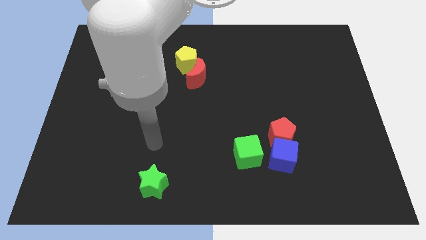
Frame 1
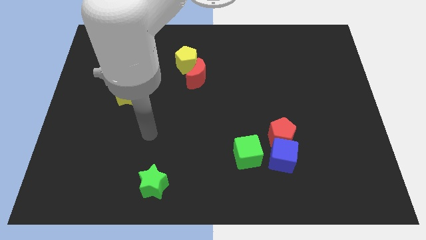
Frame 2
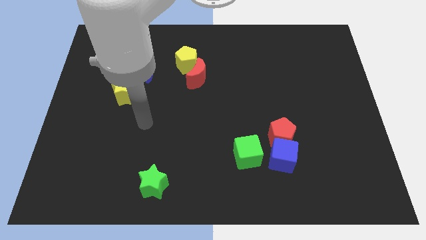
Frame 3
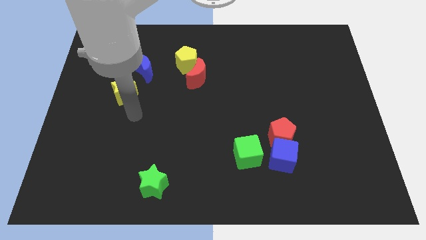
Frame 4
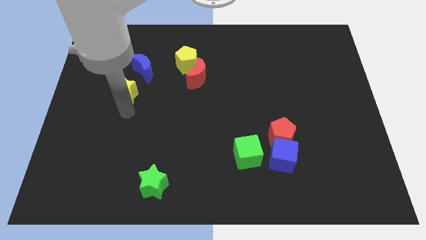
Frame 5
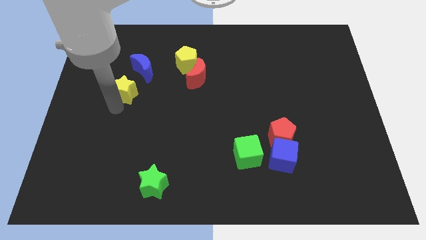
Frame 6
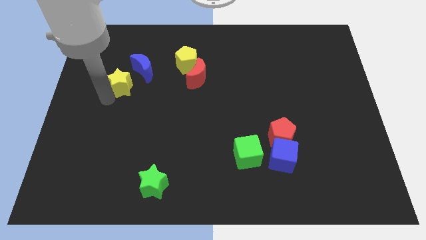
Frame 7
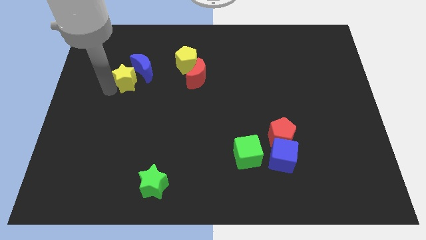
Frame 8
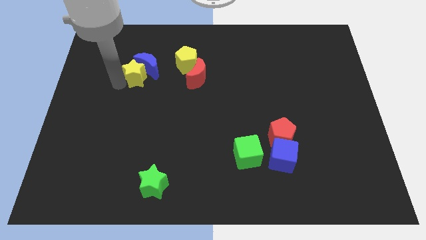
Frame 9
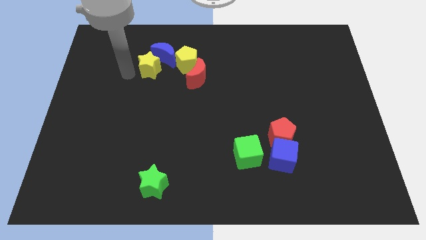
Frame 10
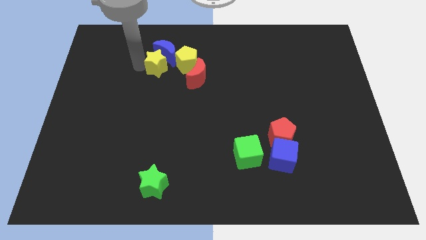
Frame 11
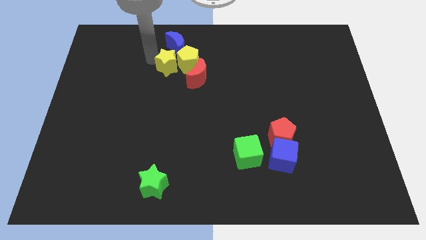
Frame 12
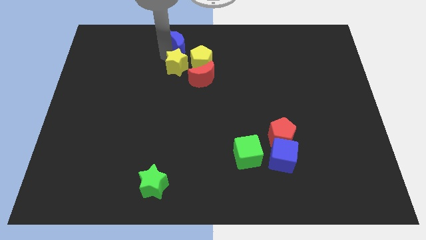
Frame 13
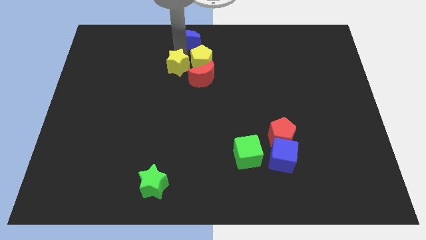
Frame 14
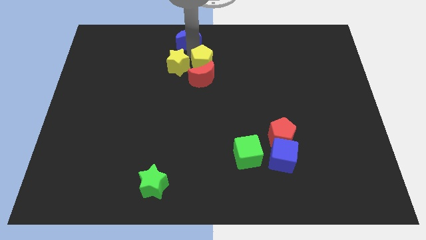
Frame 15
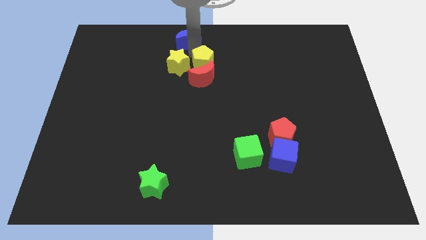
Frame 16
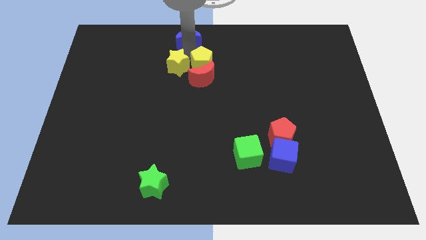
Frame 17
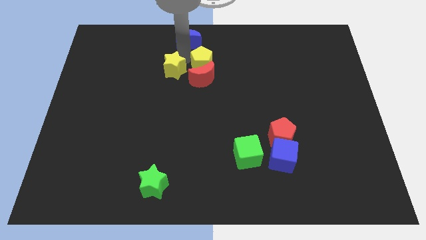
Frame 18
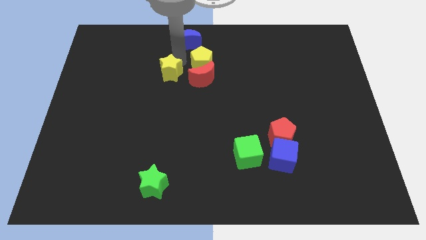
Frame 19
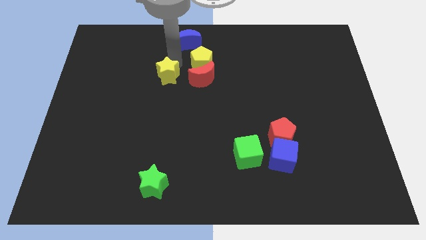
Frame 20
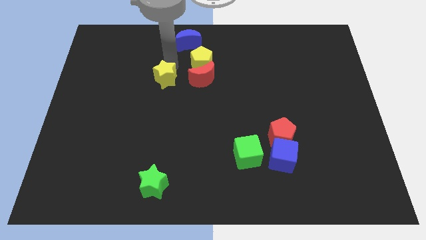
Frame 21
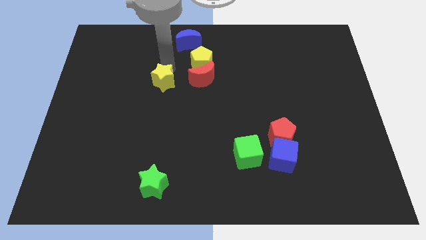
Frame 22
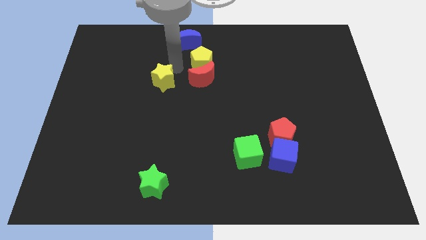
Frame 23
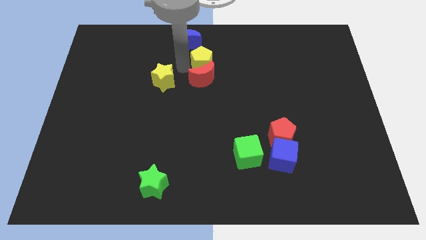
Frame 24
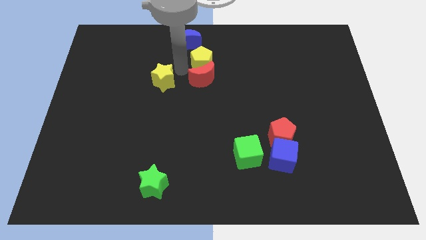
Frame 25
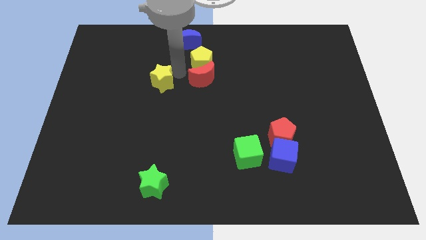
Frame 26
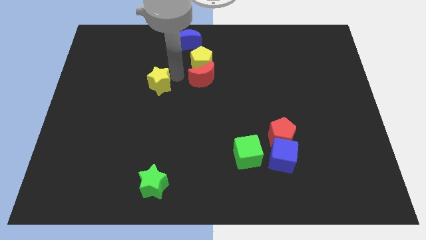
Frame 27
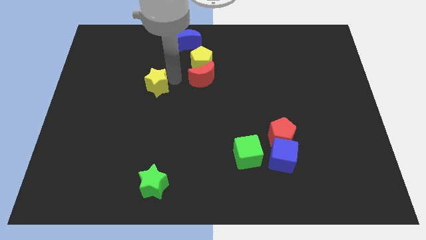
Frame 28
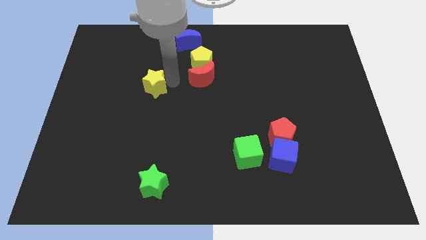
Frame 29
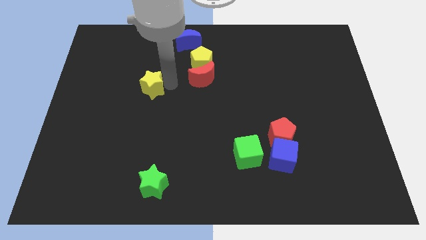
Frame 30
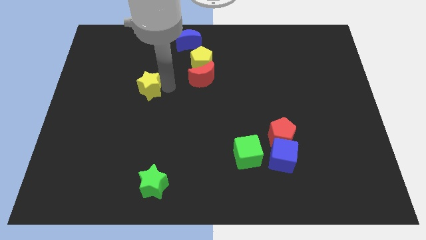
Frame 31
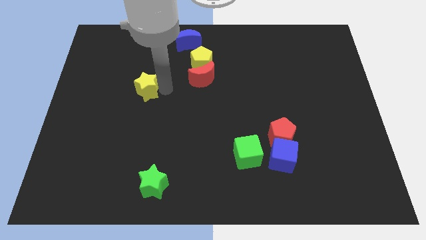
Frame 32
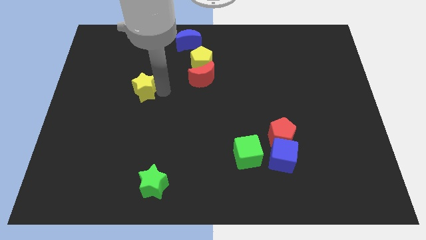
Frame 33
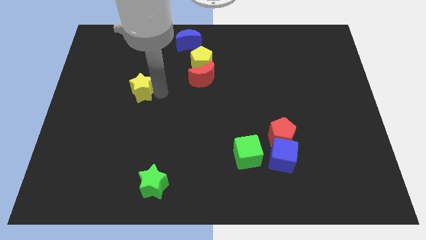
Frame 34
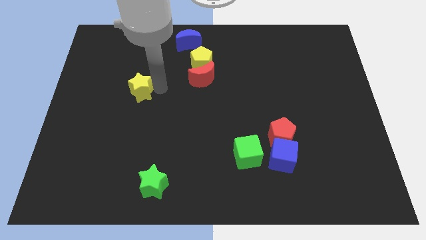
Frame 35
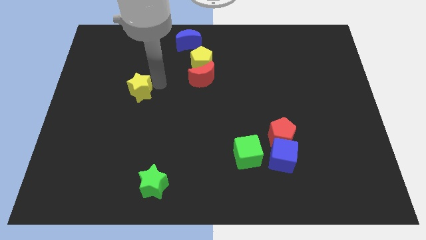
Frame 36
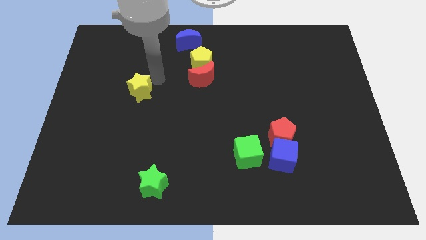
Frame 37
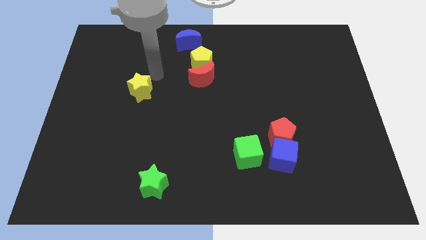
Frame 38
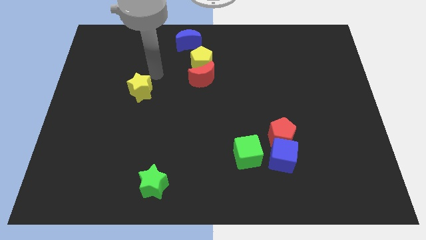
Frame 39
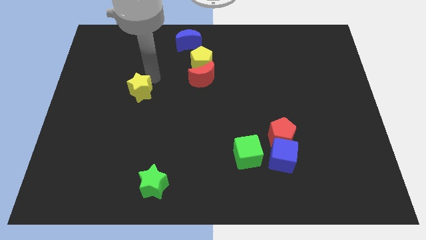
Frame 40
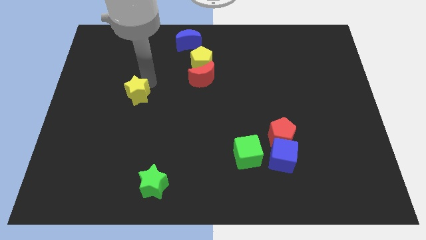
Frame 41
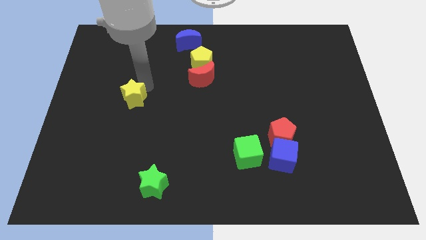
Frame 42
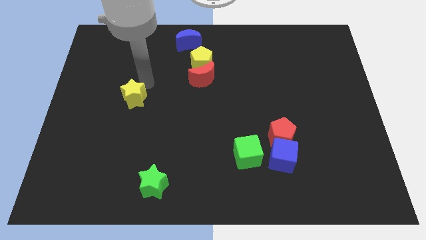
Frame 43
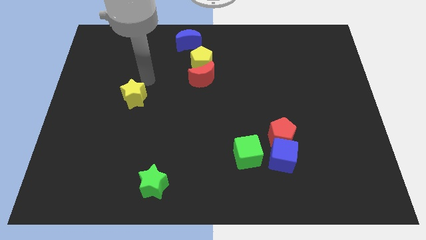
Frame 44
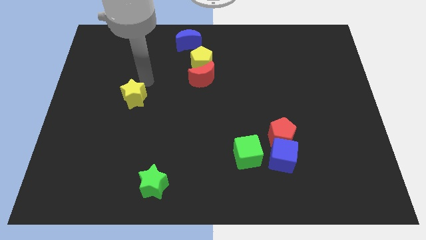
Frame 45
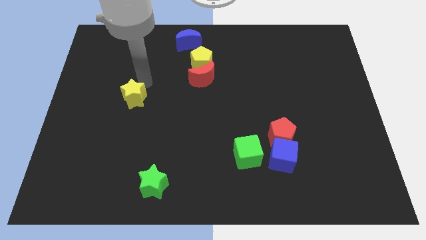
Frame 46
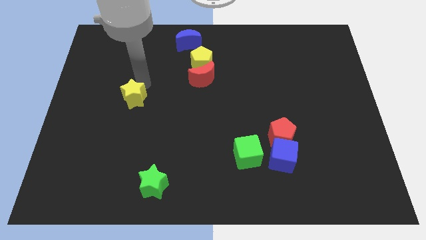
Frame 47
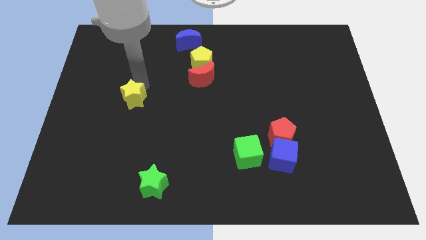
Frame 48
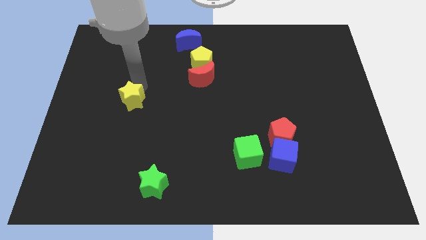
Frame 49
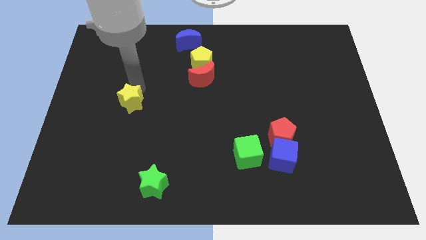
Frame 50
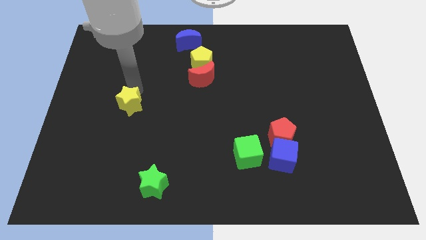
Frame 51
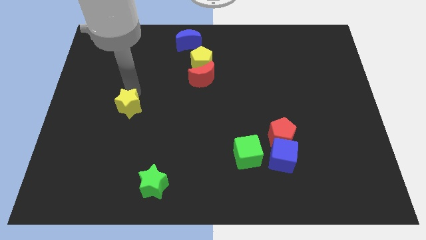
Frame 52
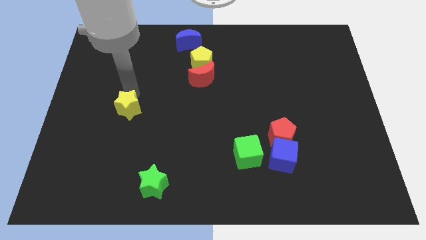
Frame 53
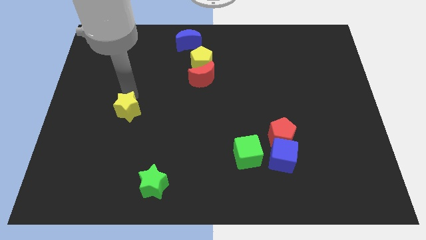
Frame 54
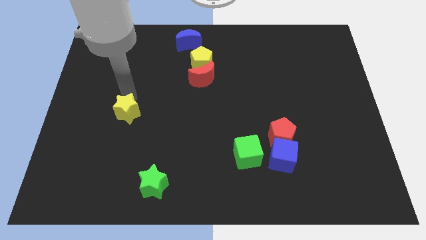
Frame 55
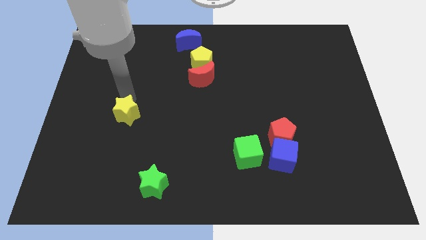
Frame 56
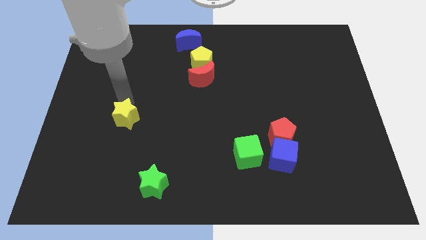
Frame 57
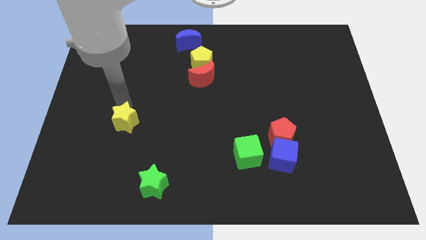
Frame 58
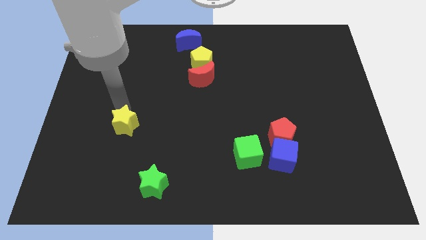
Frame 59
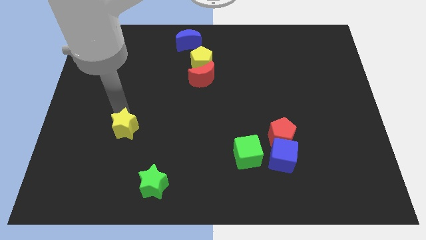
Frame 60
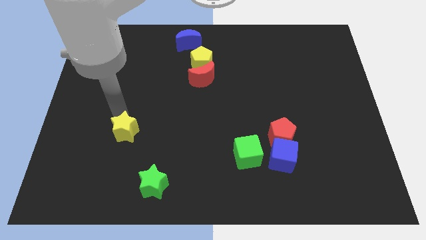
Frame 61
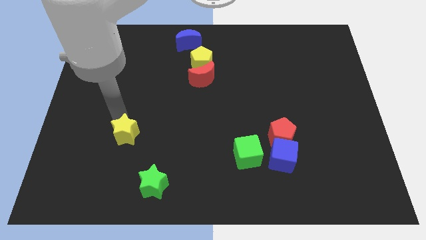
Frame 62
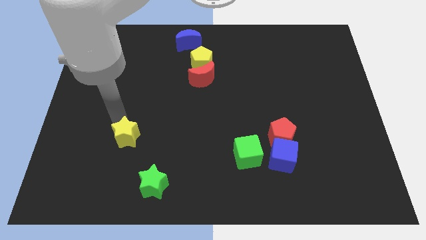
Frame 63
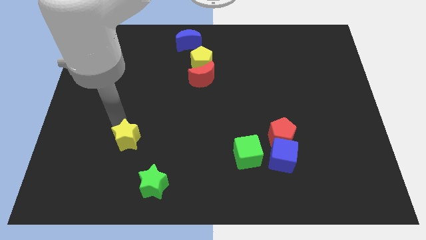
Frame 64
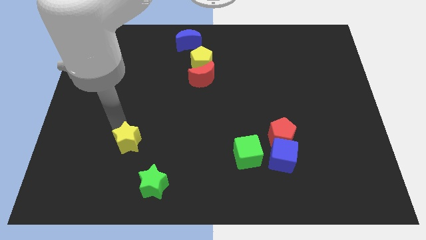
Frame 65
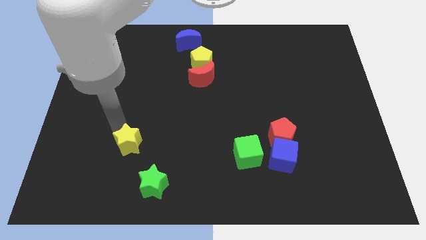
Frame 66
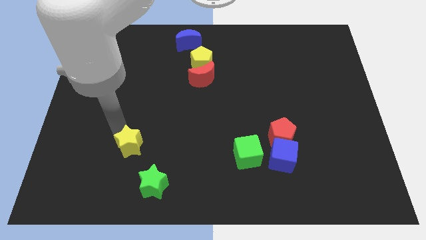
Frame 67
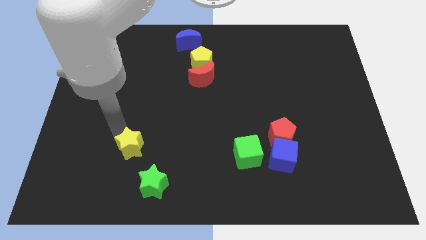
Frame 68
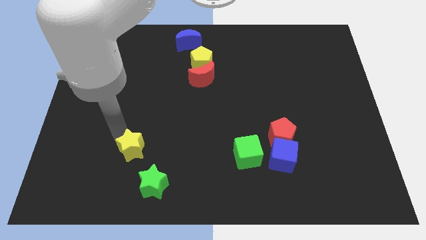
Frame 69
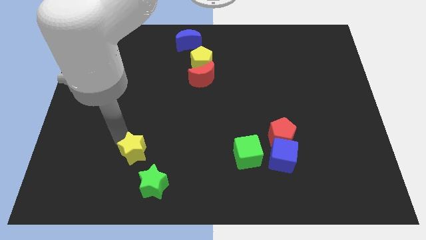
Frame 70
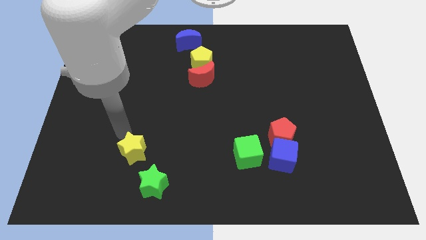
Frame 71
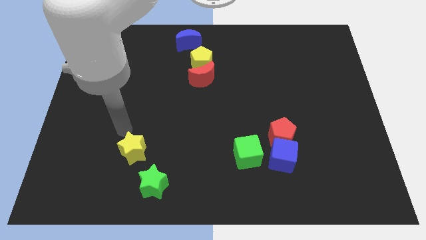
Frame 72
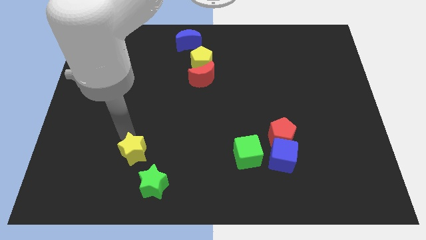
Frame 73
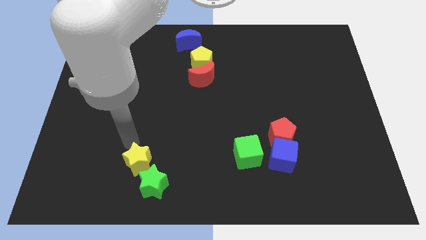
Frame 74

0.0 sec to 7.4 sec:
move the yellow star close to the green star
